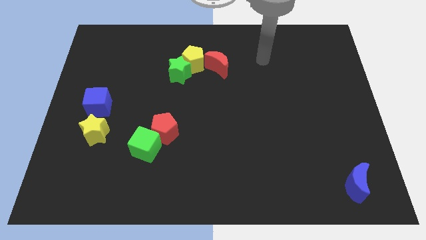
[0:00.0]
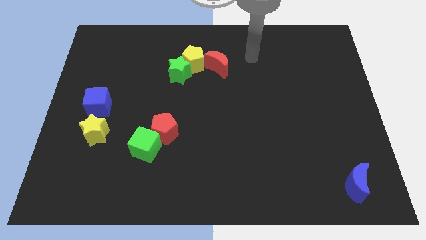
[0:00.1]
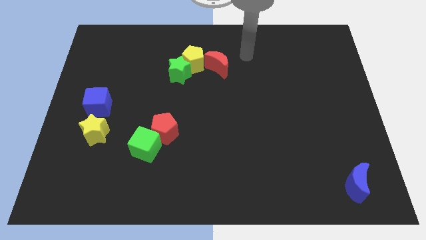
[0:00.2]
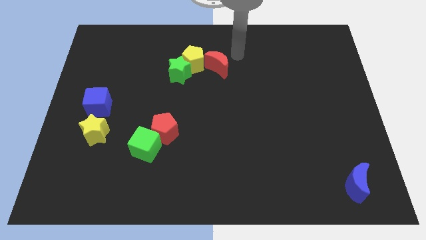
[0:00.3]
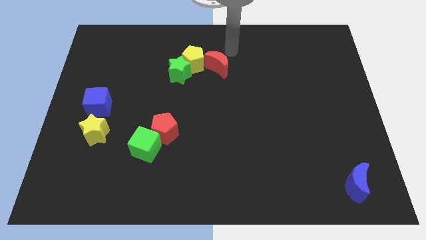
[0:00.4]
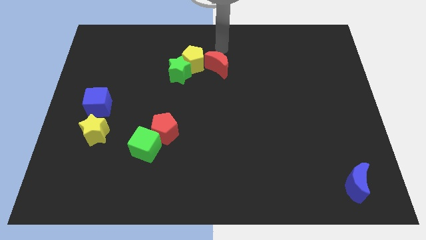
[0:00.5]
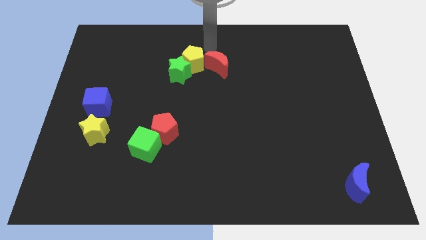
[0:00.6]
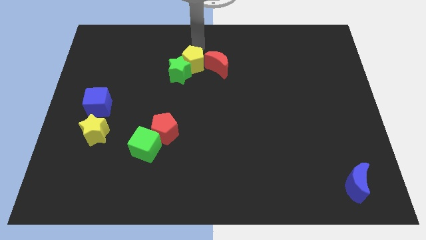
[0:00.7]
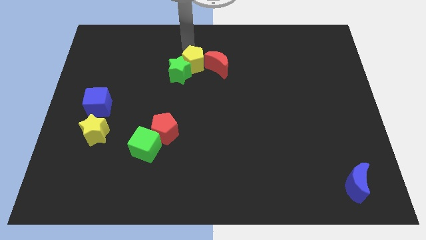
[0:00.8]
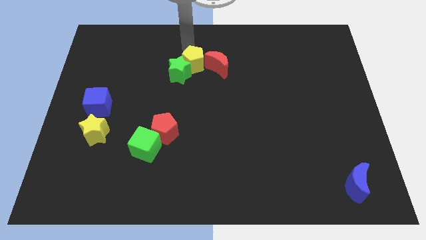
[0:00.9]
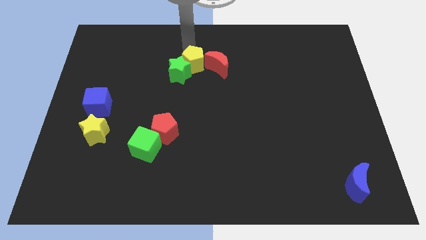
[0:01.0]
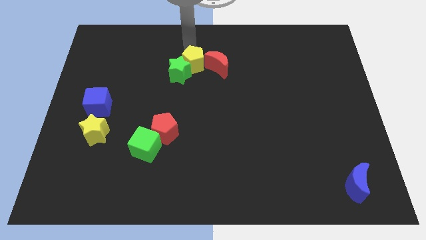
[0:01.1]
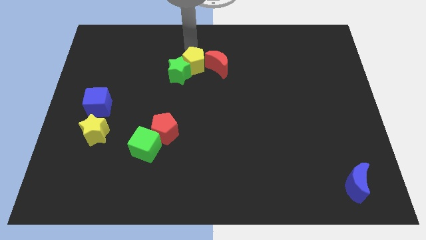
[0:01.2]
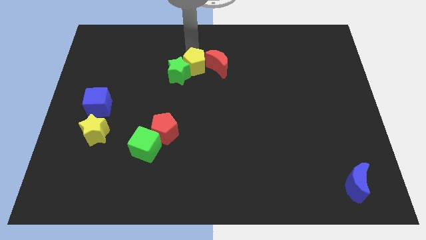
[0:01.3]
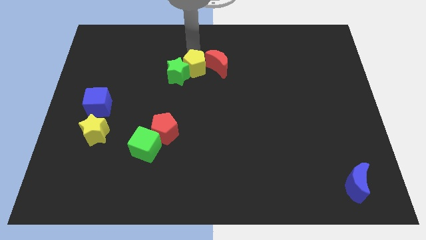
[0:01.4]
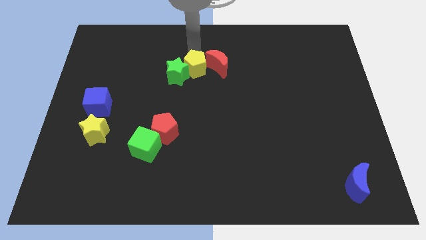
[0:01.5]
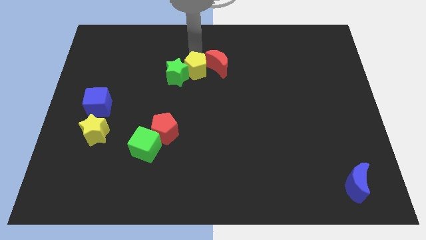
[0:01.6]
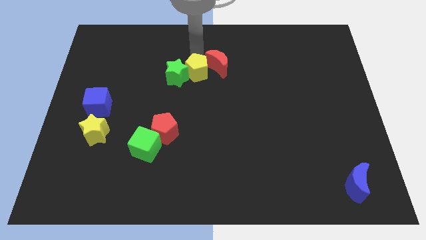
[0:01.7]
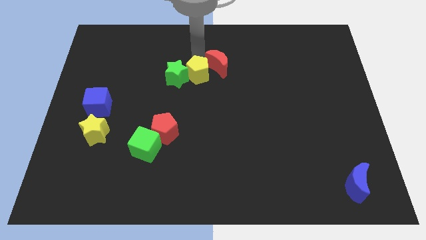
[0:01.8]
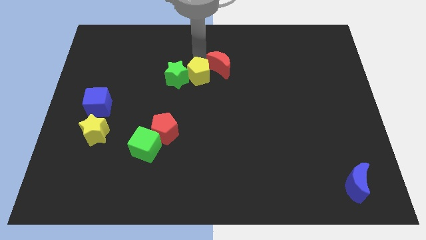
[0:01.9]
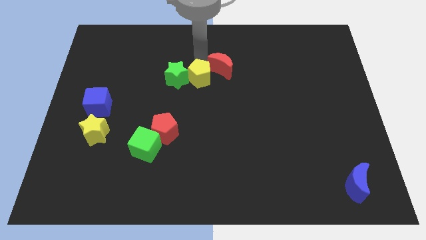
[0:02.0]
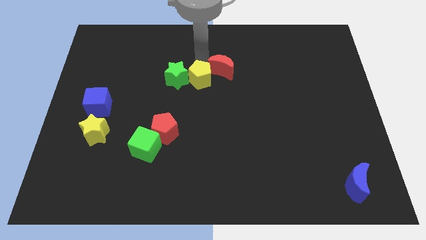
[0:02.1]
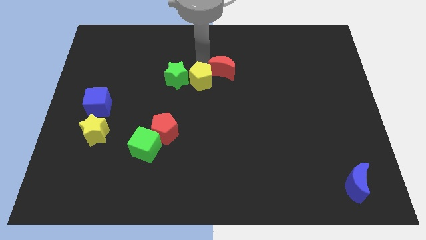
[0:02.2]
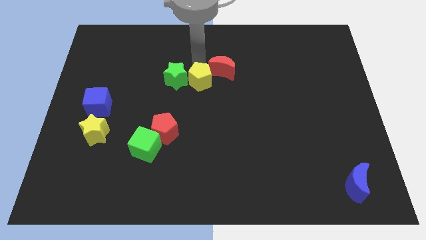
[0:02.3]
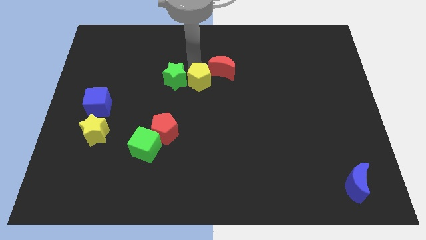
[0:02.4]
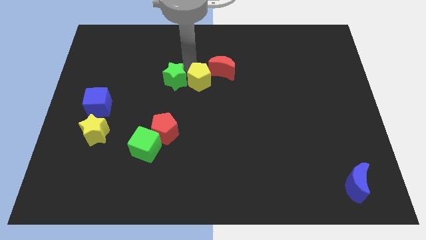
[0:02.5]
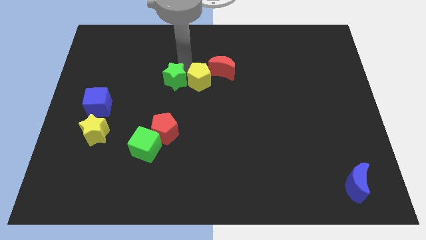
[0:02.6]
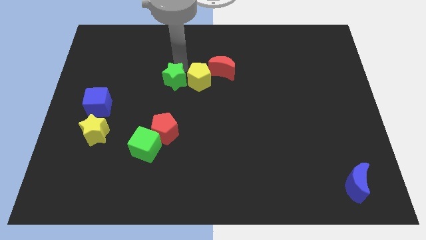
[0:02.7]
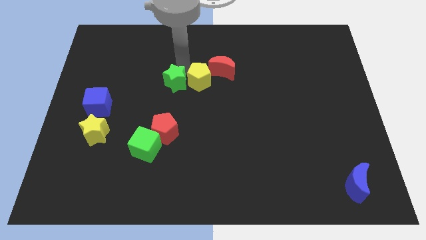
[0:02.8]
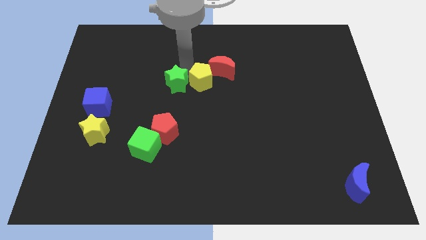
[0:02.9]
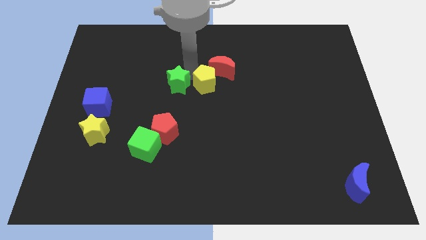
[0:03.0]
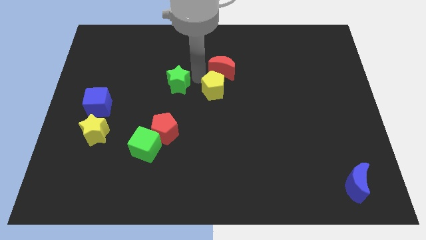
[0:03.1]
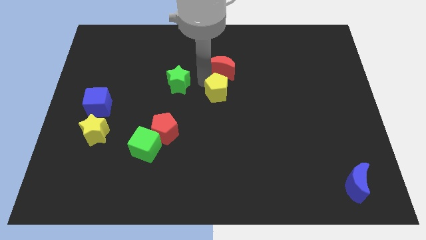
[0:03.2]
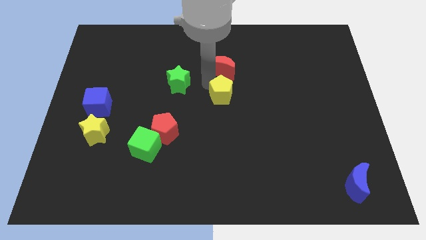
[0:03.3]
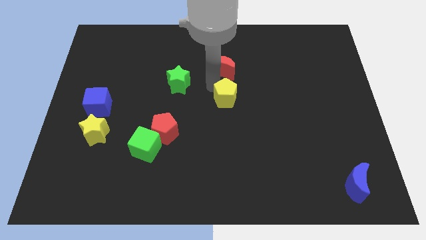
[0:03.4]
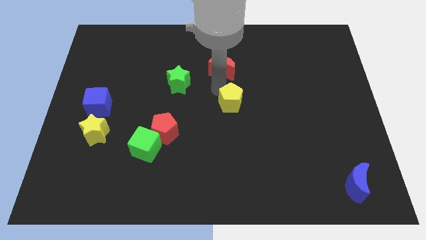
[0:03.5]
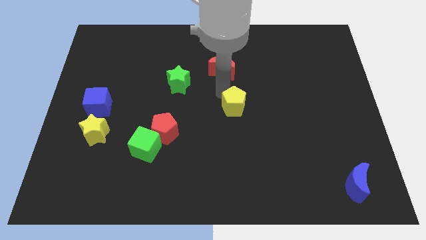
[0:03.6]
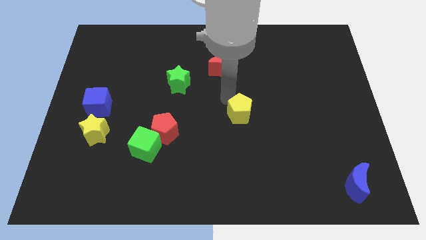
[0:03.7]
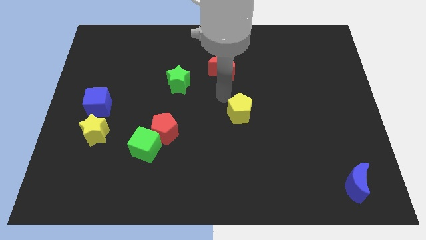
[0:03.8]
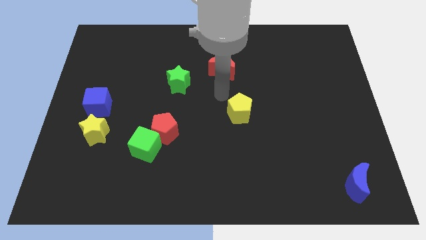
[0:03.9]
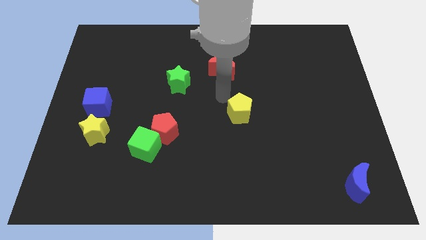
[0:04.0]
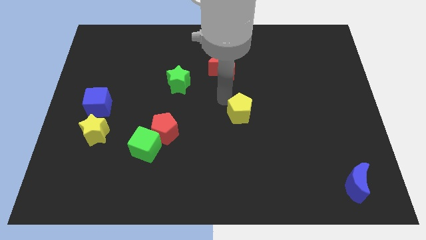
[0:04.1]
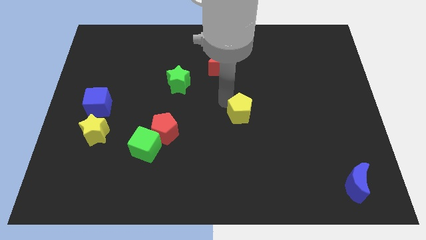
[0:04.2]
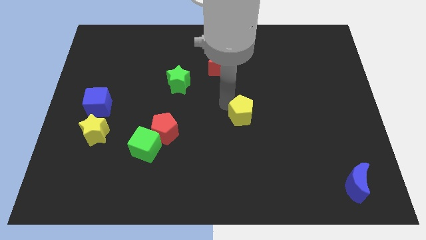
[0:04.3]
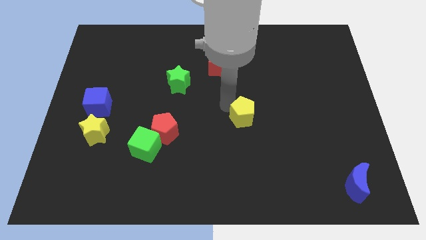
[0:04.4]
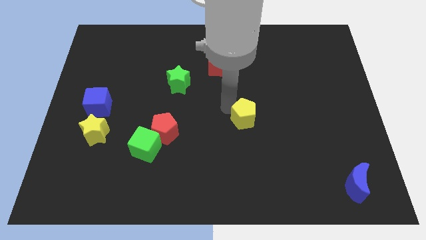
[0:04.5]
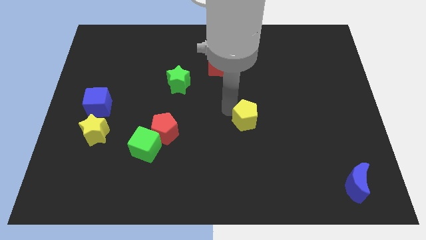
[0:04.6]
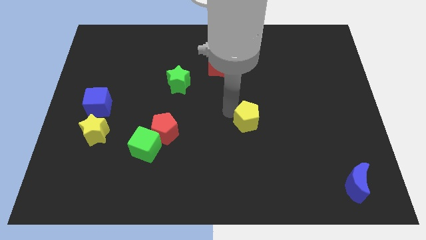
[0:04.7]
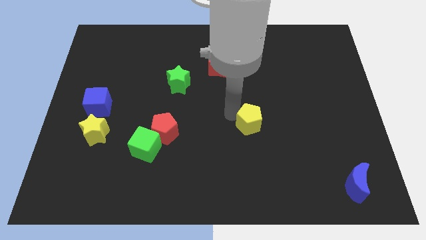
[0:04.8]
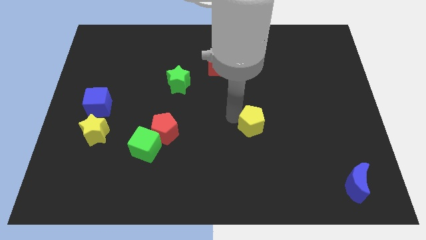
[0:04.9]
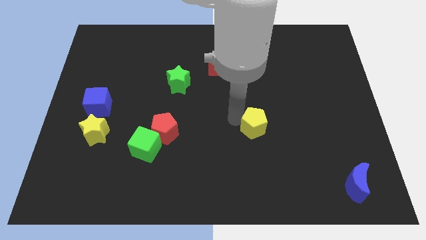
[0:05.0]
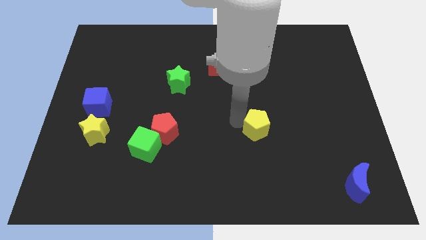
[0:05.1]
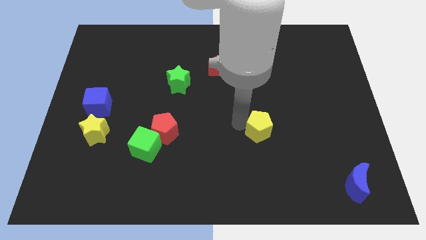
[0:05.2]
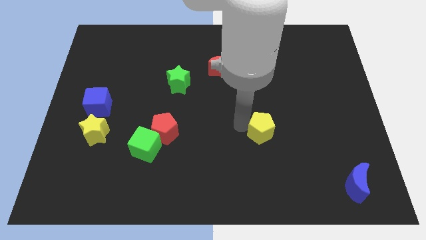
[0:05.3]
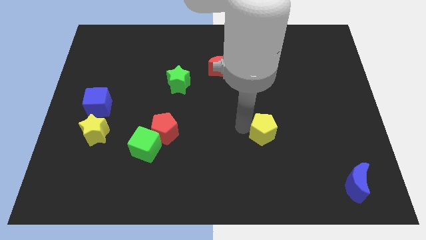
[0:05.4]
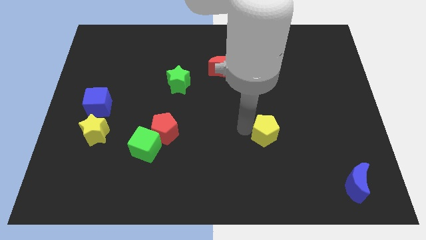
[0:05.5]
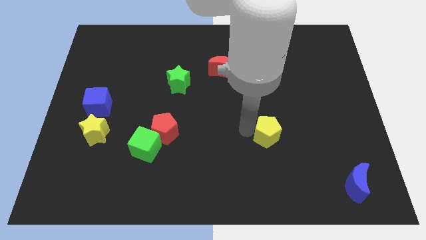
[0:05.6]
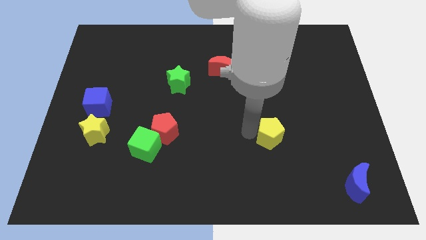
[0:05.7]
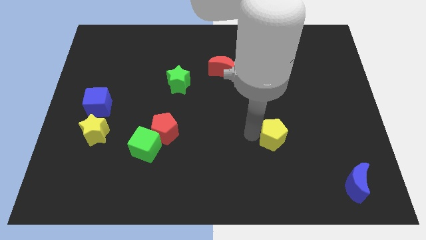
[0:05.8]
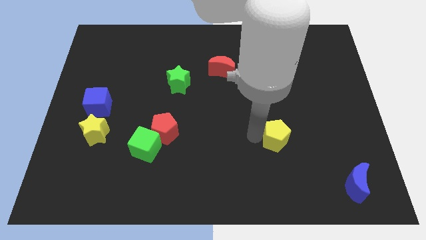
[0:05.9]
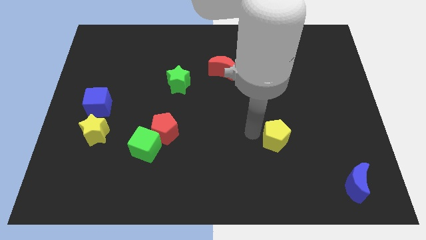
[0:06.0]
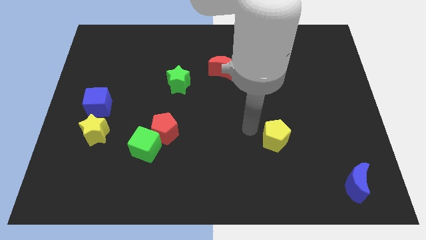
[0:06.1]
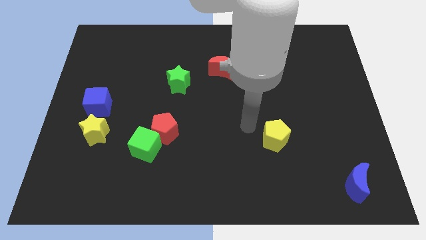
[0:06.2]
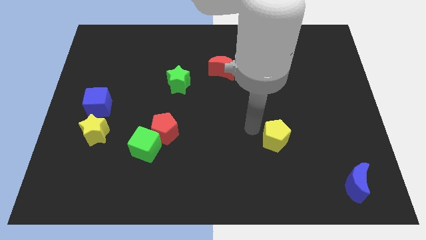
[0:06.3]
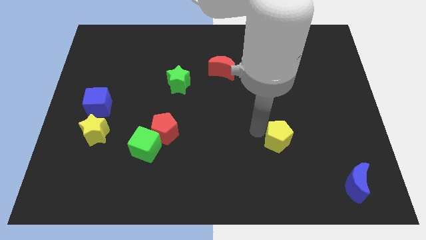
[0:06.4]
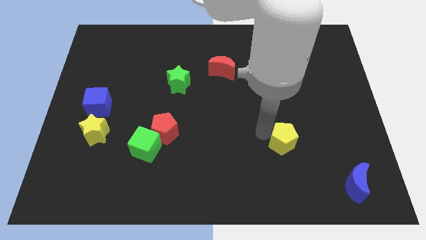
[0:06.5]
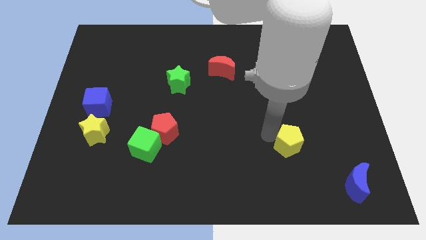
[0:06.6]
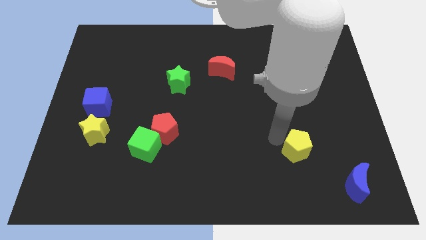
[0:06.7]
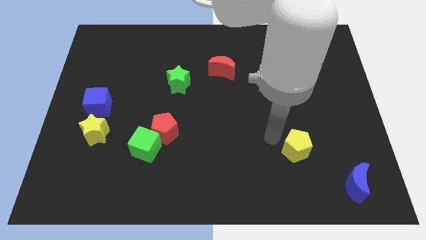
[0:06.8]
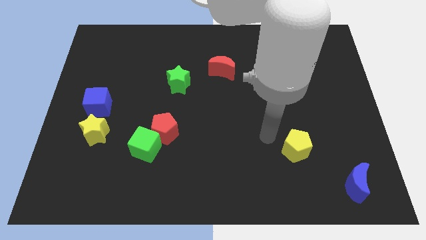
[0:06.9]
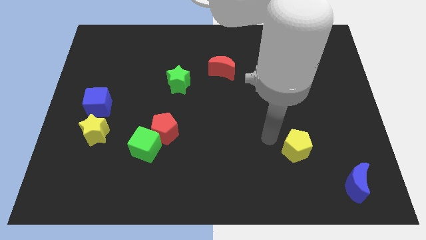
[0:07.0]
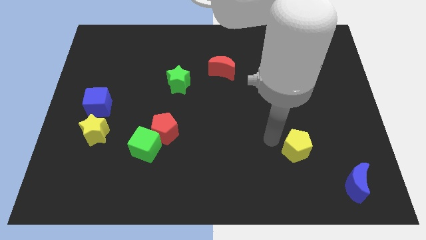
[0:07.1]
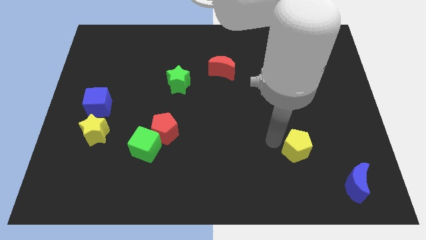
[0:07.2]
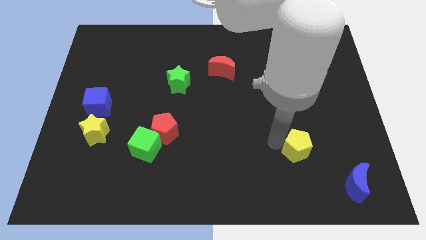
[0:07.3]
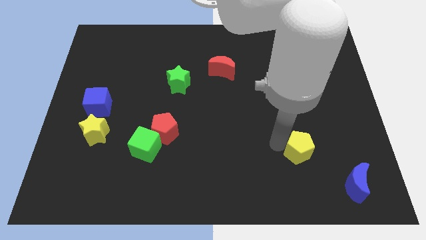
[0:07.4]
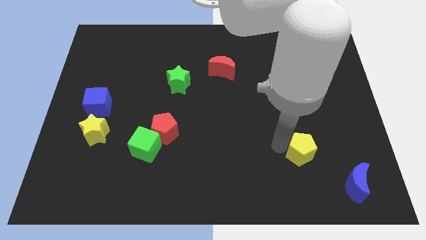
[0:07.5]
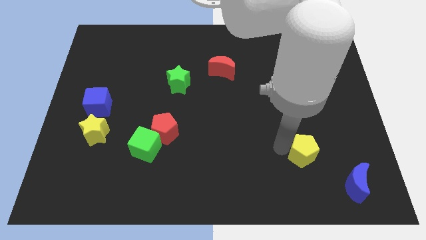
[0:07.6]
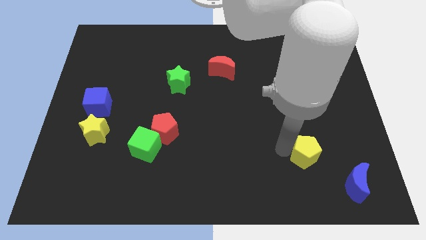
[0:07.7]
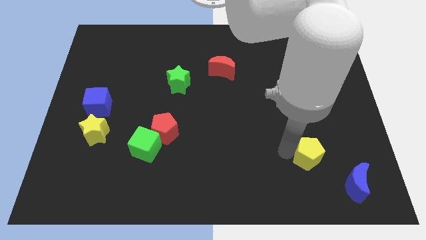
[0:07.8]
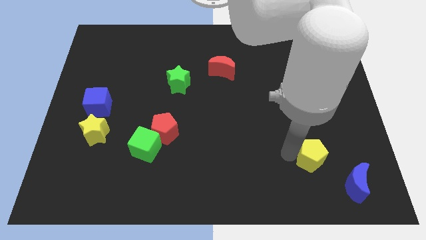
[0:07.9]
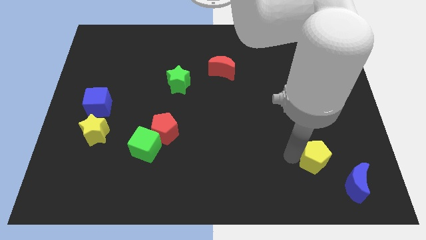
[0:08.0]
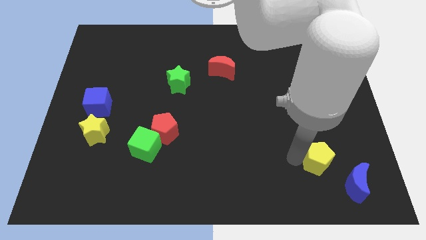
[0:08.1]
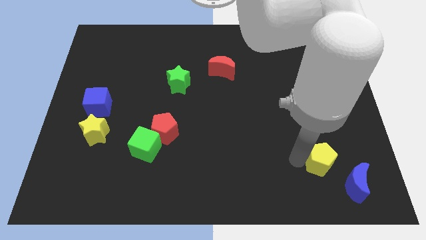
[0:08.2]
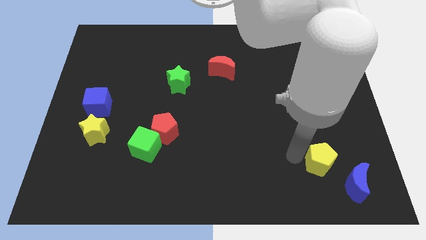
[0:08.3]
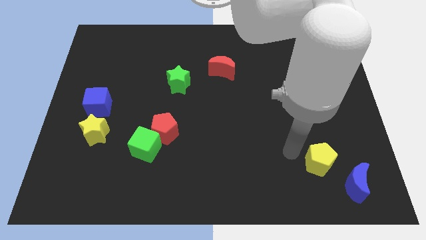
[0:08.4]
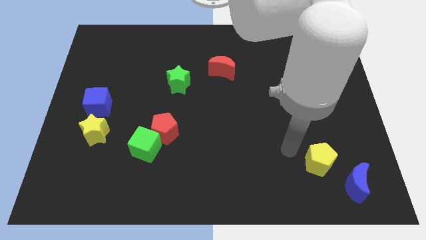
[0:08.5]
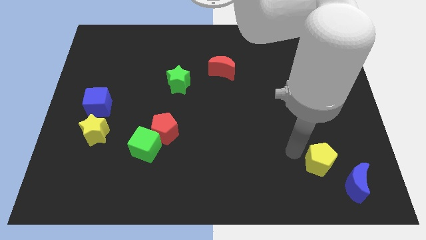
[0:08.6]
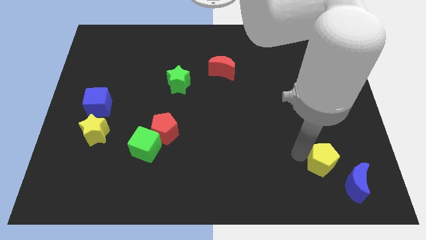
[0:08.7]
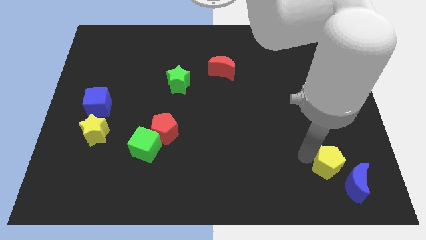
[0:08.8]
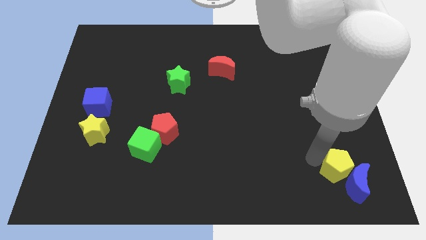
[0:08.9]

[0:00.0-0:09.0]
put the yellow pentagon next to the blue moon
